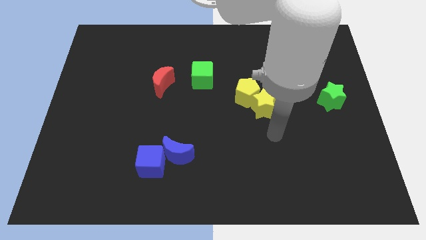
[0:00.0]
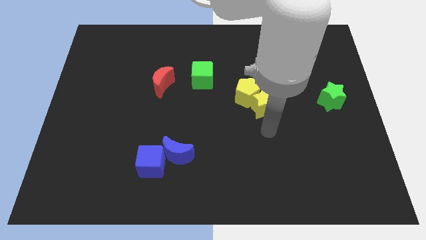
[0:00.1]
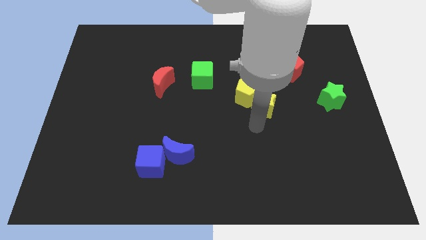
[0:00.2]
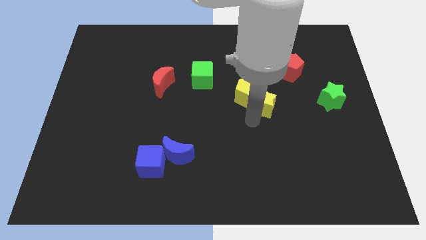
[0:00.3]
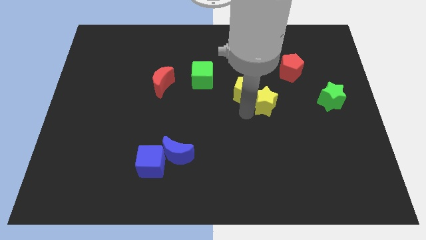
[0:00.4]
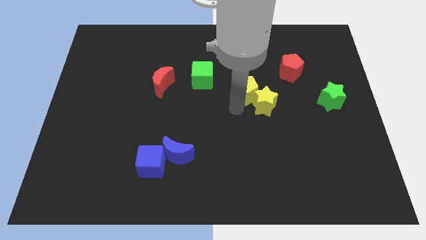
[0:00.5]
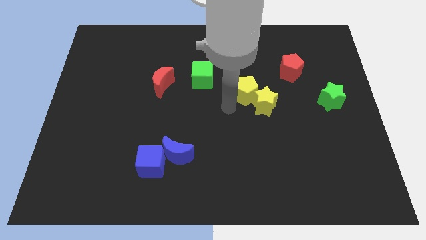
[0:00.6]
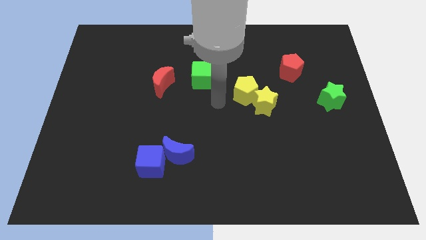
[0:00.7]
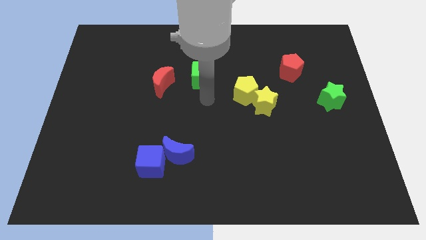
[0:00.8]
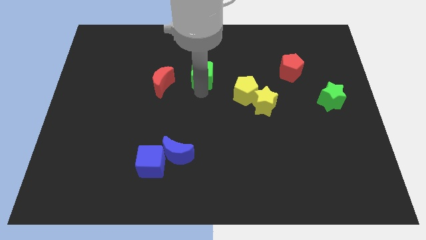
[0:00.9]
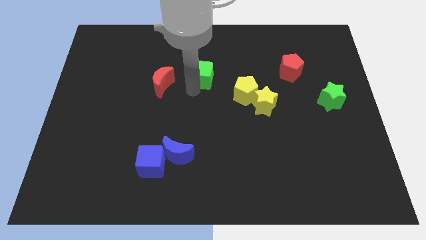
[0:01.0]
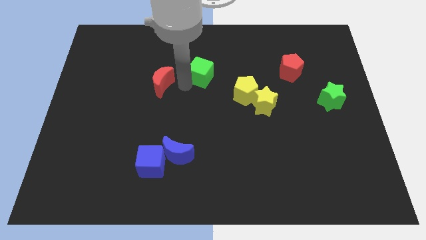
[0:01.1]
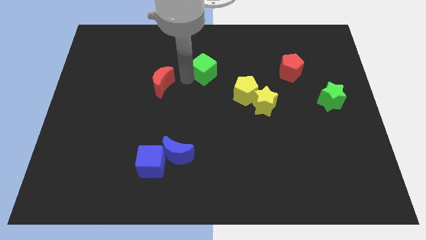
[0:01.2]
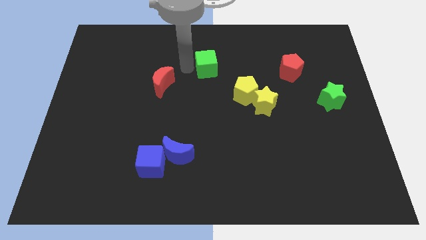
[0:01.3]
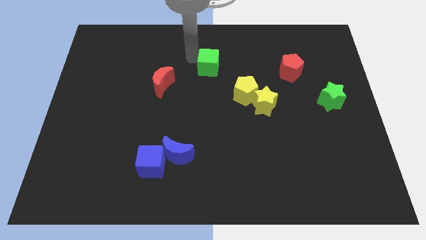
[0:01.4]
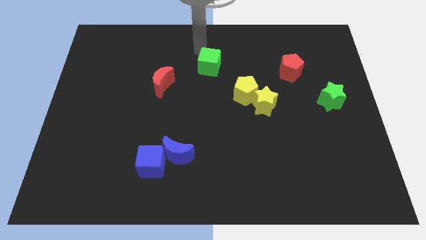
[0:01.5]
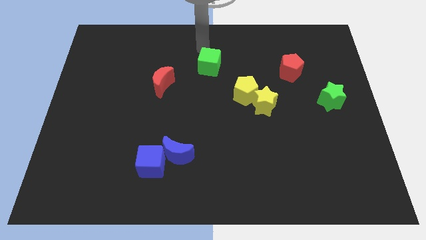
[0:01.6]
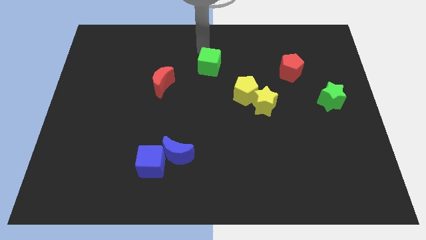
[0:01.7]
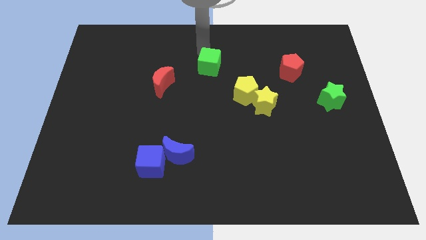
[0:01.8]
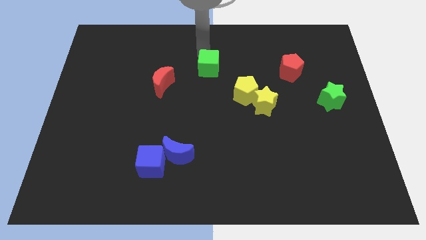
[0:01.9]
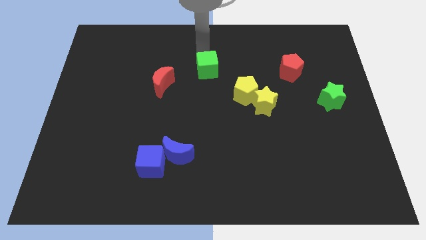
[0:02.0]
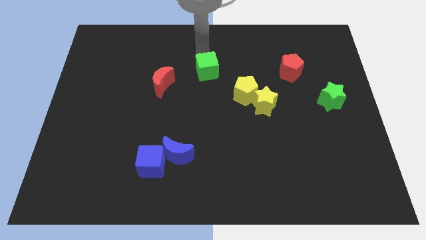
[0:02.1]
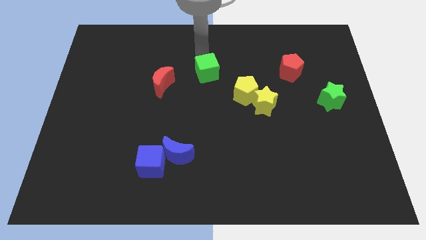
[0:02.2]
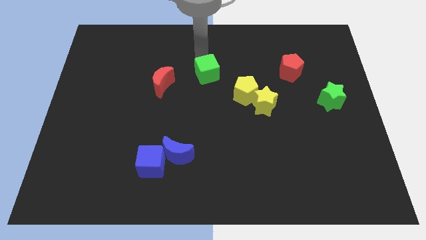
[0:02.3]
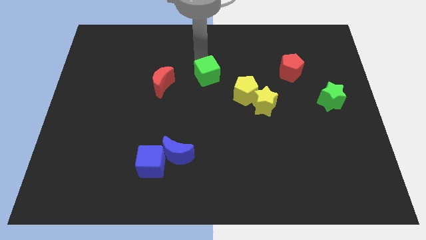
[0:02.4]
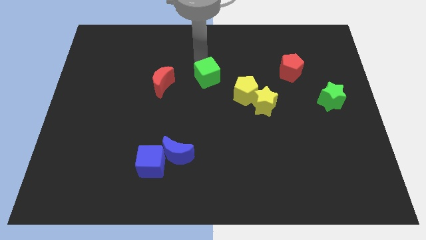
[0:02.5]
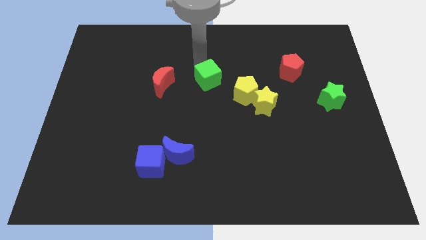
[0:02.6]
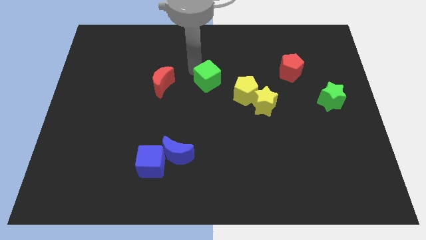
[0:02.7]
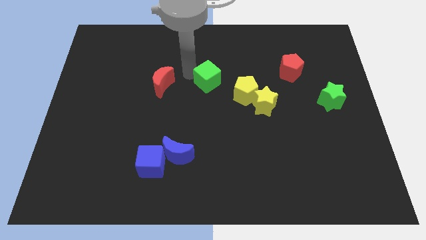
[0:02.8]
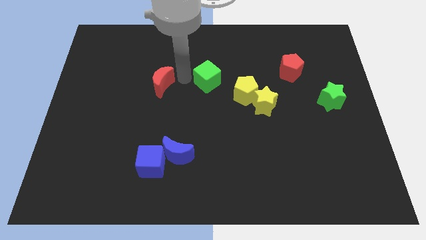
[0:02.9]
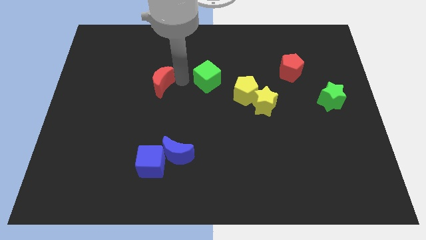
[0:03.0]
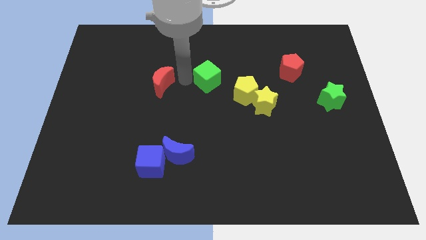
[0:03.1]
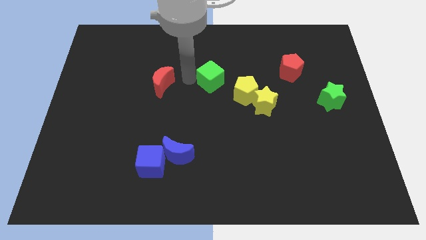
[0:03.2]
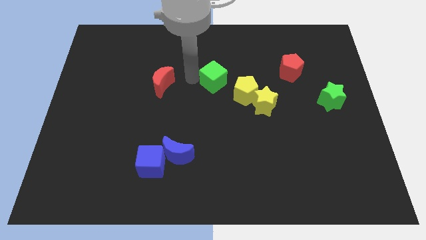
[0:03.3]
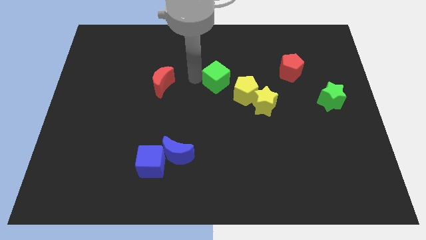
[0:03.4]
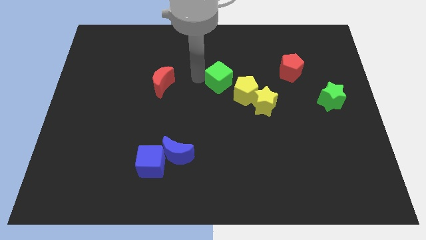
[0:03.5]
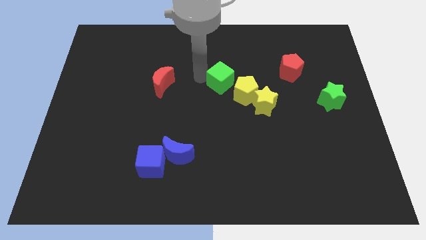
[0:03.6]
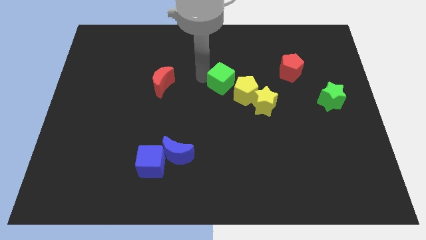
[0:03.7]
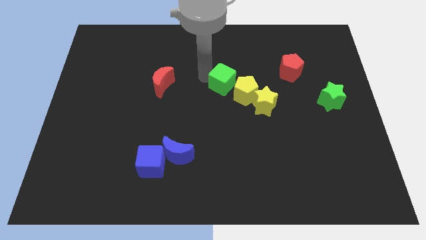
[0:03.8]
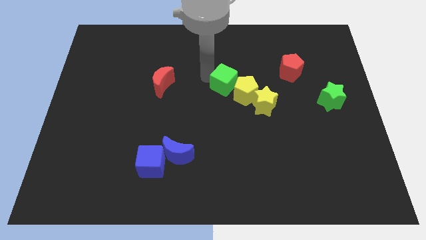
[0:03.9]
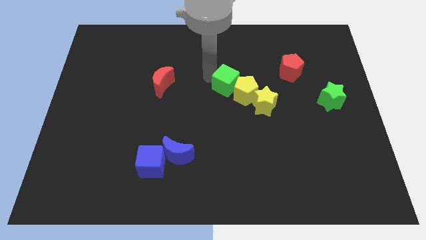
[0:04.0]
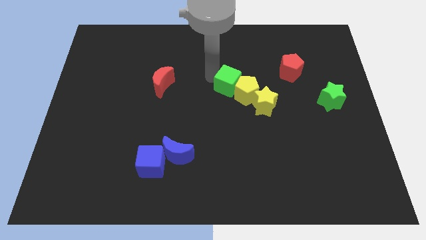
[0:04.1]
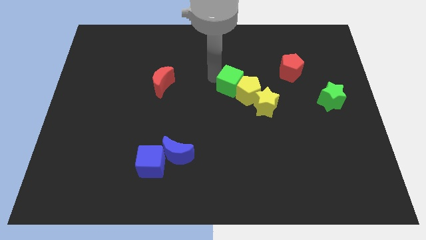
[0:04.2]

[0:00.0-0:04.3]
push the green cube a little to the right

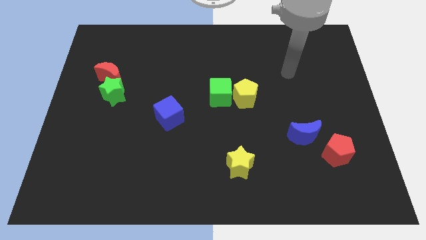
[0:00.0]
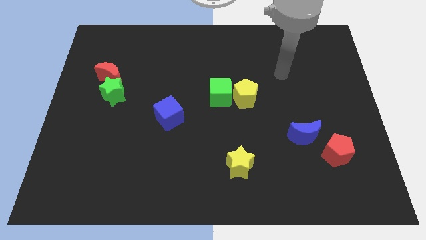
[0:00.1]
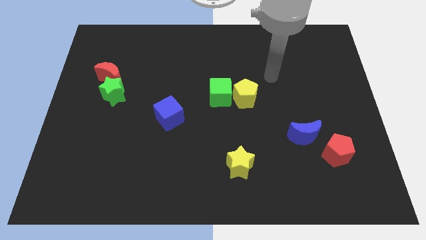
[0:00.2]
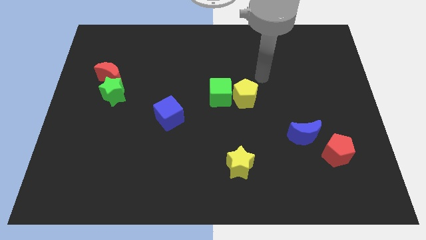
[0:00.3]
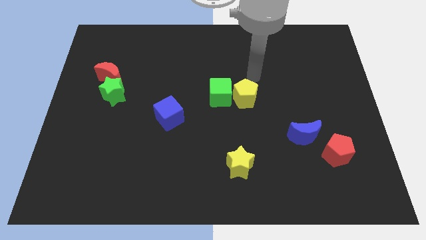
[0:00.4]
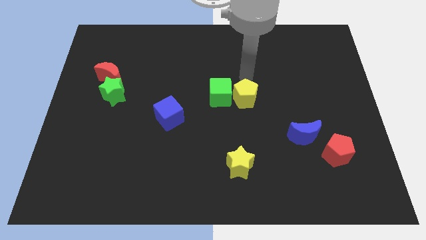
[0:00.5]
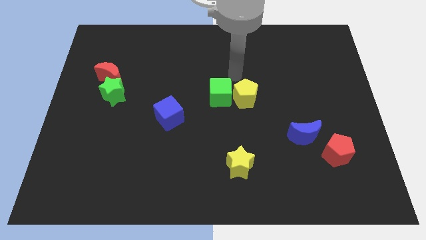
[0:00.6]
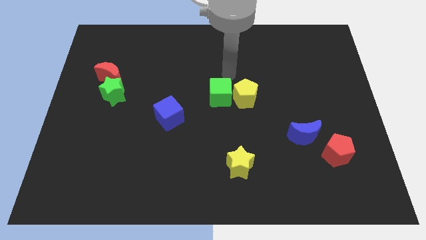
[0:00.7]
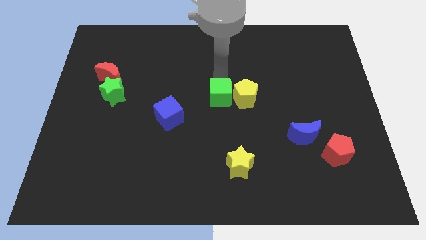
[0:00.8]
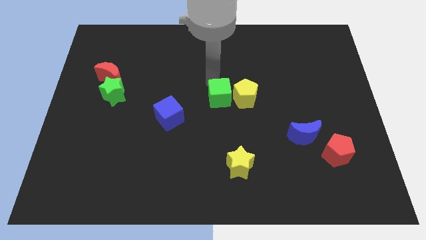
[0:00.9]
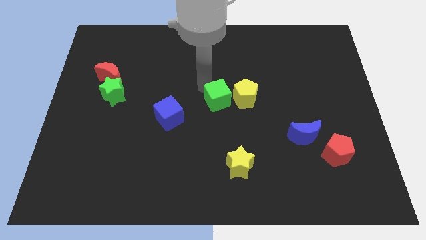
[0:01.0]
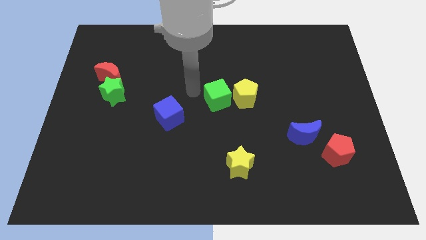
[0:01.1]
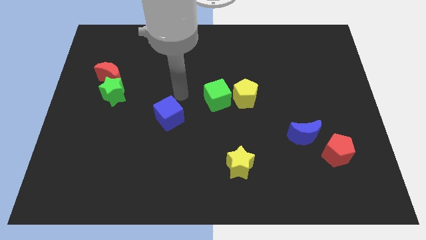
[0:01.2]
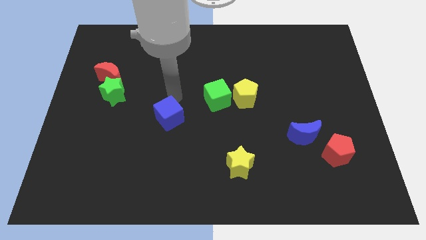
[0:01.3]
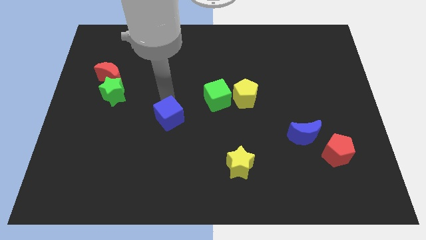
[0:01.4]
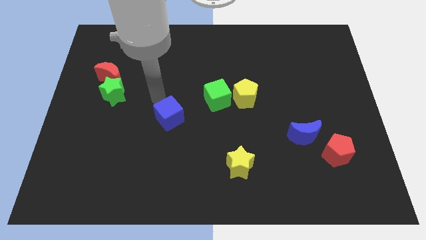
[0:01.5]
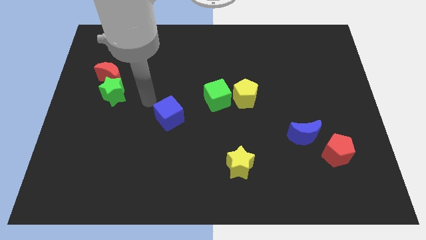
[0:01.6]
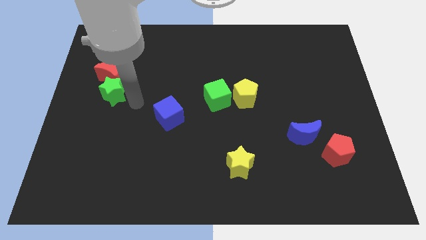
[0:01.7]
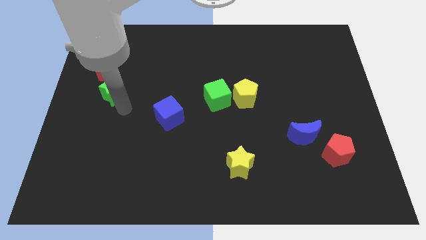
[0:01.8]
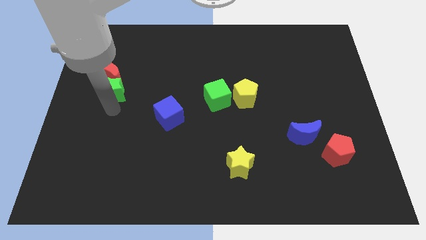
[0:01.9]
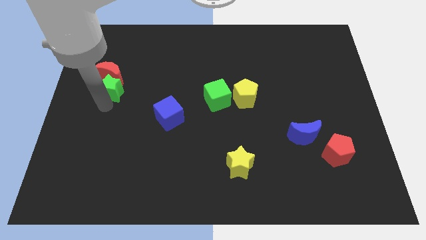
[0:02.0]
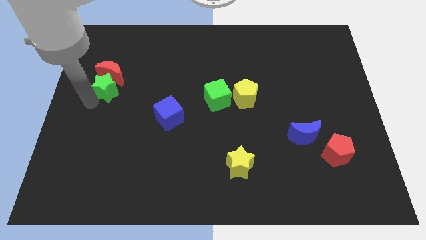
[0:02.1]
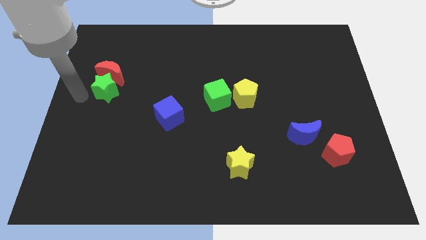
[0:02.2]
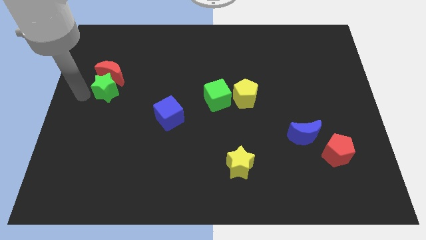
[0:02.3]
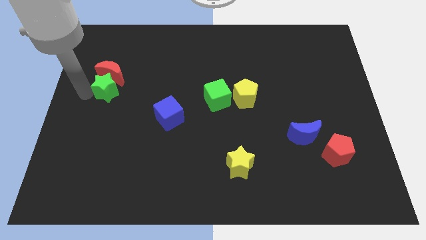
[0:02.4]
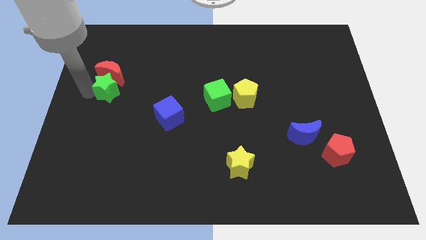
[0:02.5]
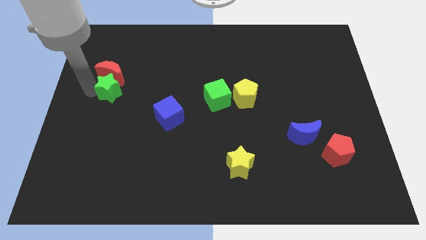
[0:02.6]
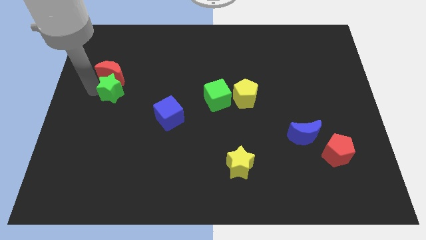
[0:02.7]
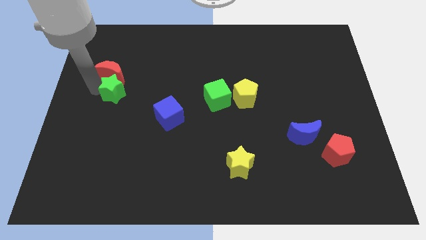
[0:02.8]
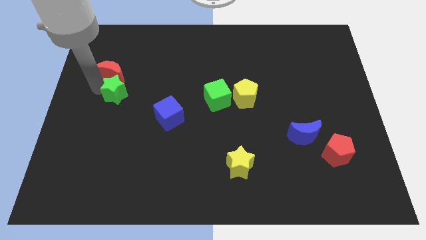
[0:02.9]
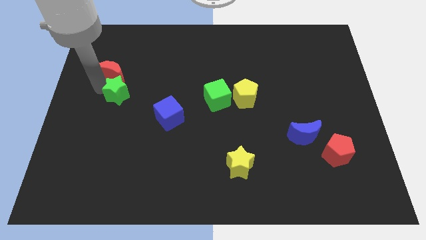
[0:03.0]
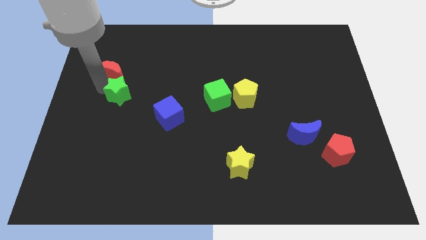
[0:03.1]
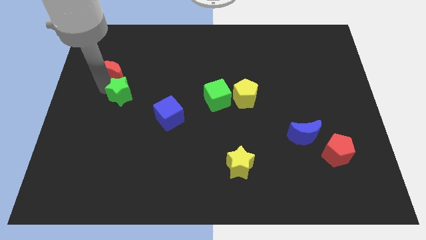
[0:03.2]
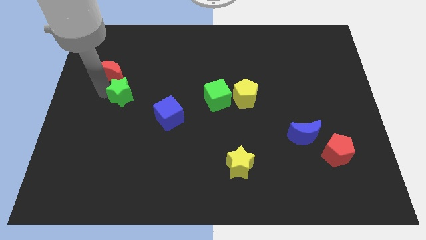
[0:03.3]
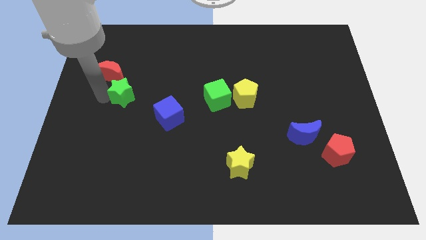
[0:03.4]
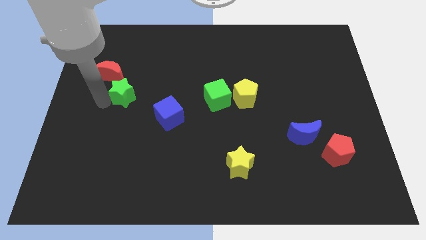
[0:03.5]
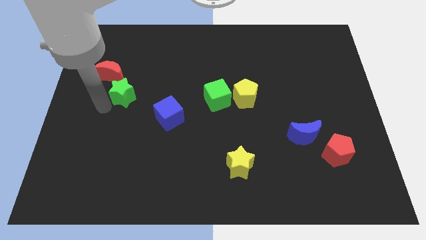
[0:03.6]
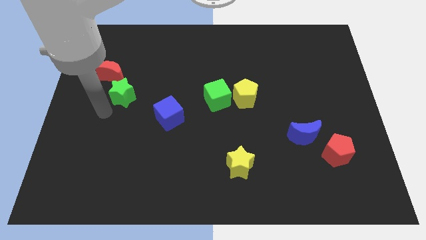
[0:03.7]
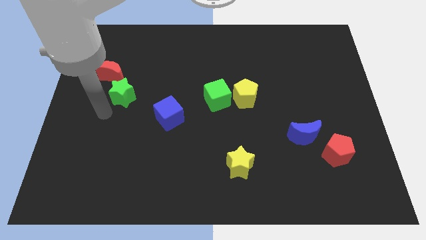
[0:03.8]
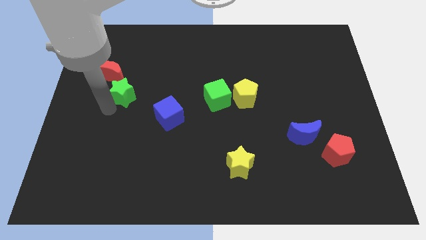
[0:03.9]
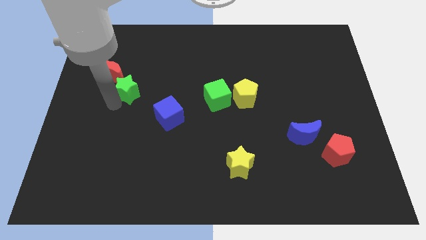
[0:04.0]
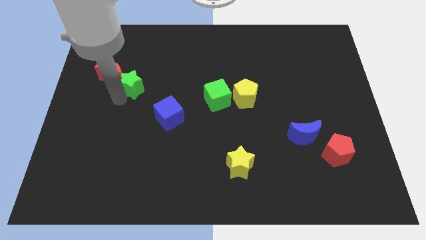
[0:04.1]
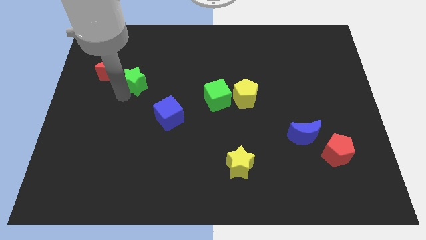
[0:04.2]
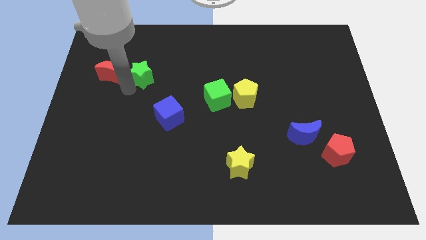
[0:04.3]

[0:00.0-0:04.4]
slightly move the green star up and to the right diagonally
